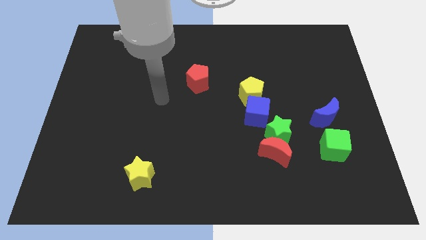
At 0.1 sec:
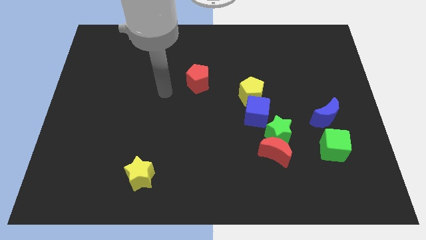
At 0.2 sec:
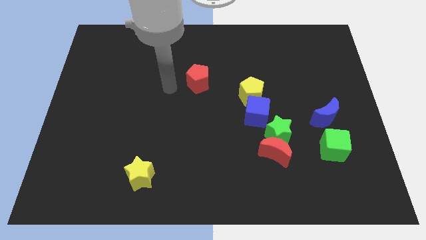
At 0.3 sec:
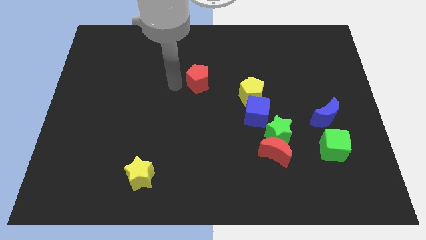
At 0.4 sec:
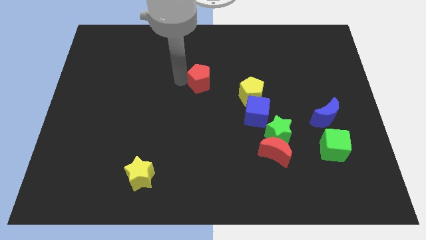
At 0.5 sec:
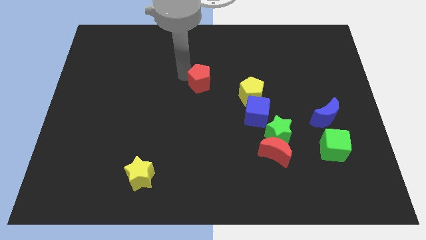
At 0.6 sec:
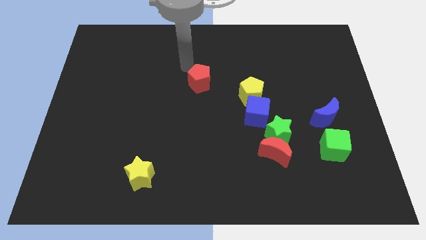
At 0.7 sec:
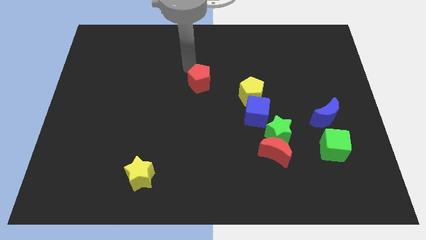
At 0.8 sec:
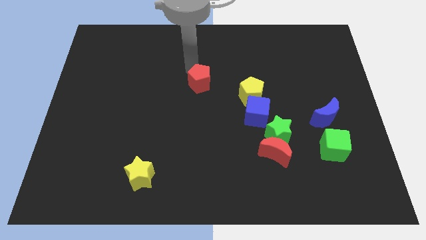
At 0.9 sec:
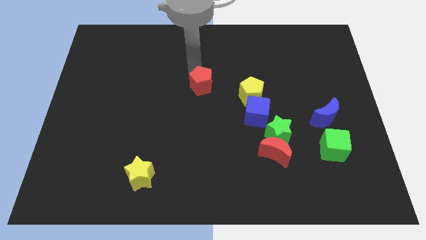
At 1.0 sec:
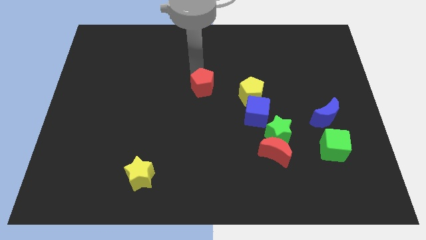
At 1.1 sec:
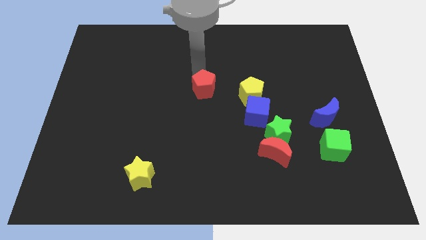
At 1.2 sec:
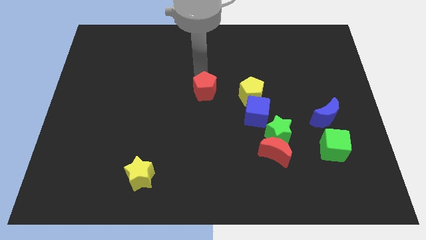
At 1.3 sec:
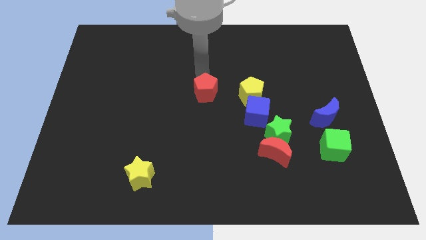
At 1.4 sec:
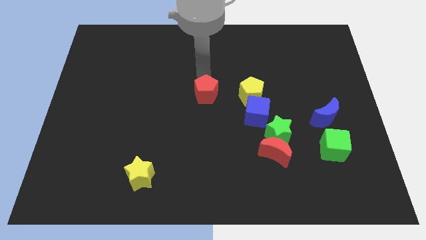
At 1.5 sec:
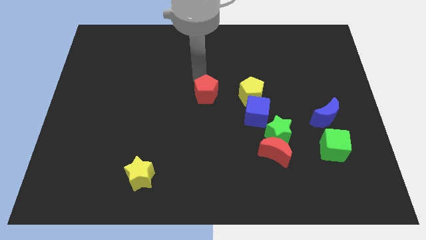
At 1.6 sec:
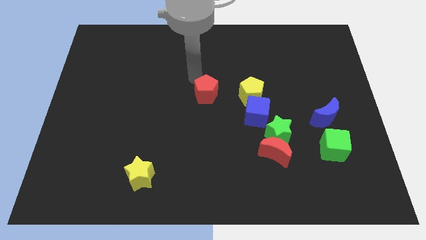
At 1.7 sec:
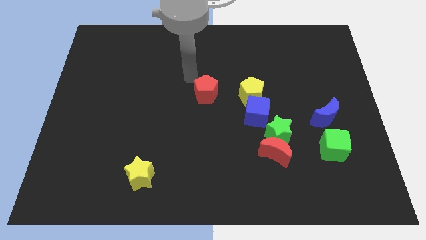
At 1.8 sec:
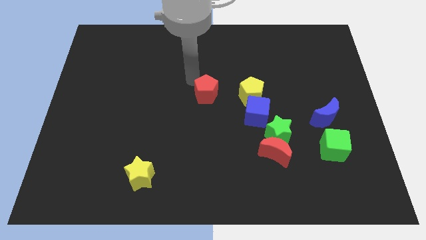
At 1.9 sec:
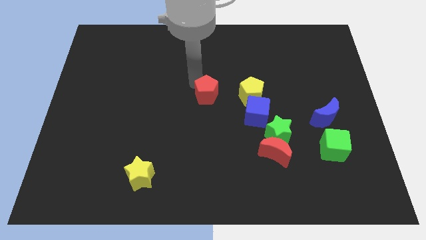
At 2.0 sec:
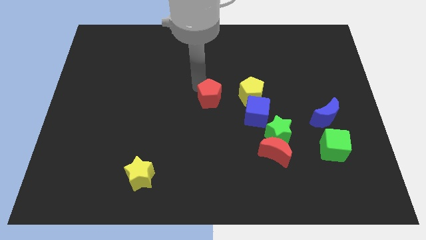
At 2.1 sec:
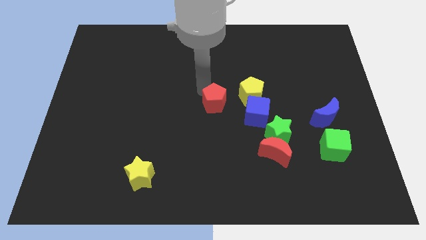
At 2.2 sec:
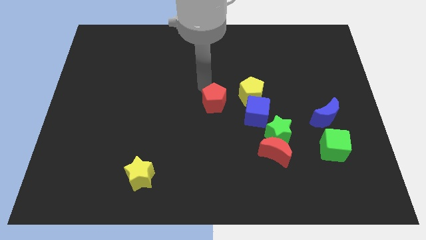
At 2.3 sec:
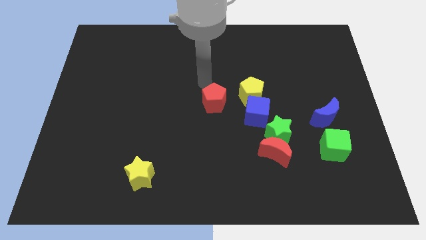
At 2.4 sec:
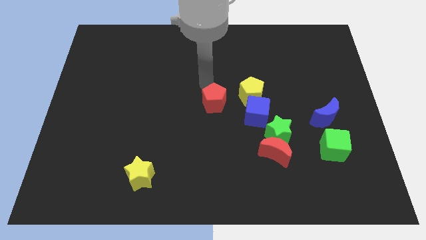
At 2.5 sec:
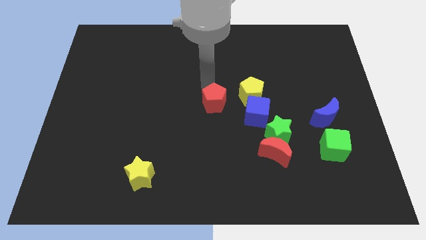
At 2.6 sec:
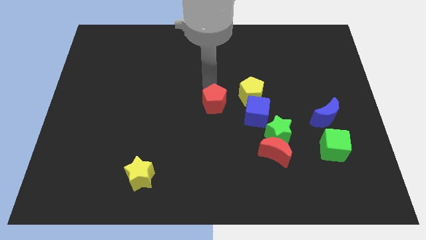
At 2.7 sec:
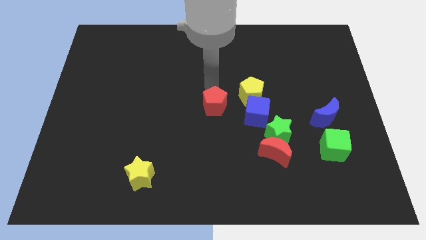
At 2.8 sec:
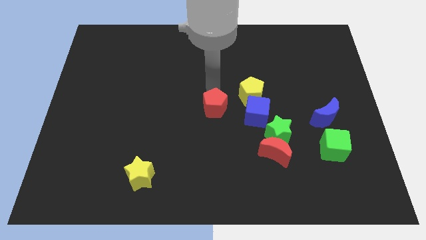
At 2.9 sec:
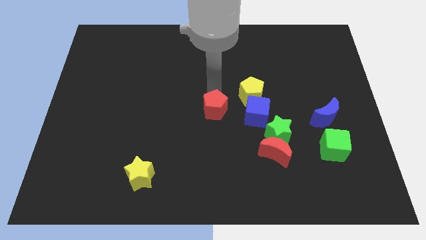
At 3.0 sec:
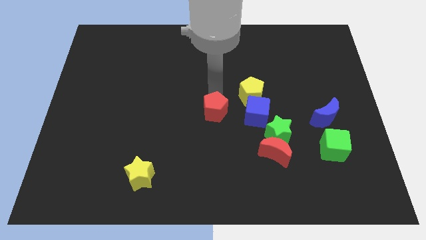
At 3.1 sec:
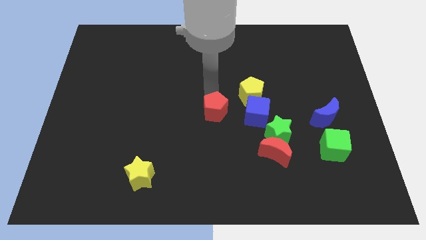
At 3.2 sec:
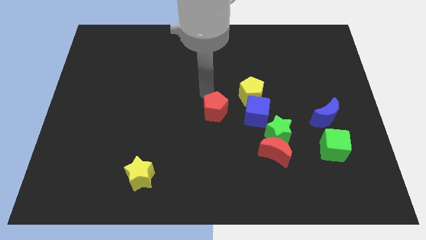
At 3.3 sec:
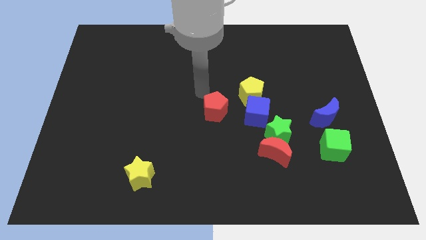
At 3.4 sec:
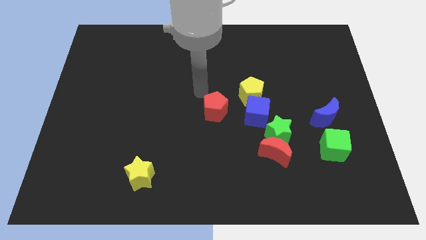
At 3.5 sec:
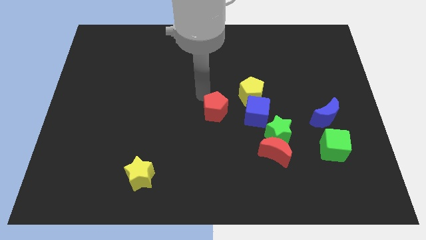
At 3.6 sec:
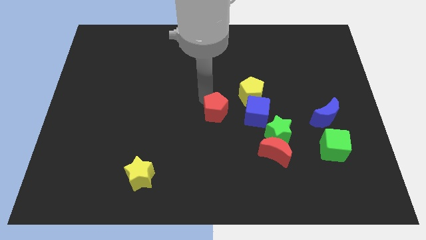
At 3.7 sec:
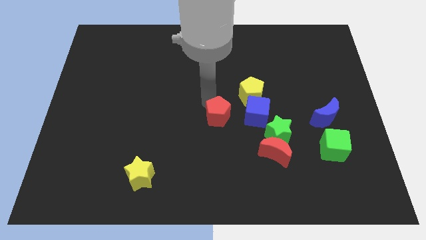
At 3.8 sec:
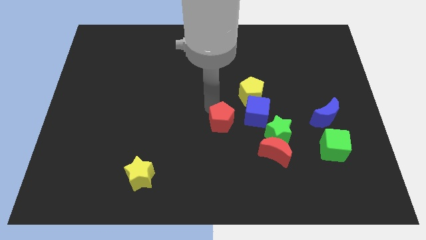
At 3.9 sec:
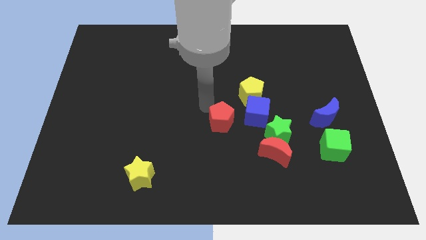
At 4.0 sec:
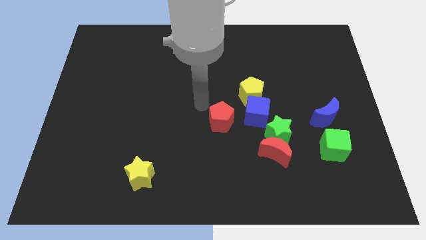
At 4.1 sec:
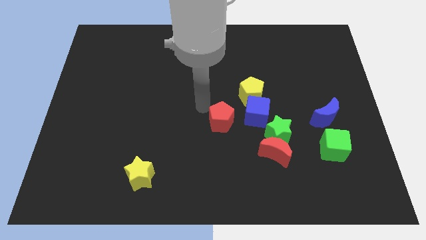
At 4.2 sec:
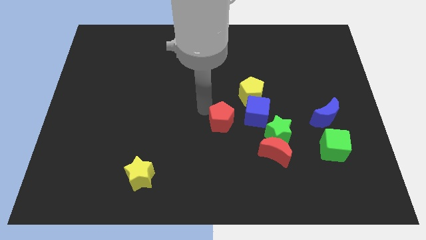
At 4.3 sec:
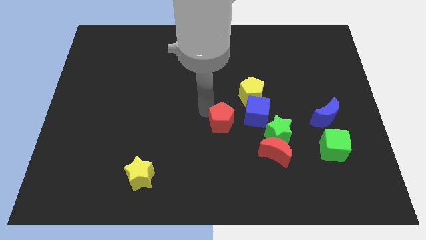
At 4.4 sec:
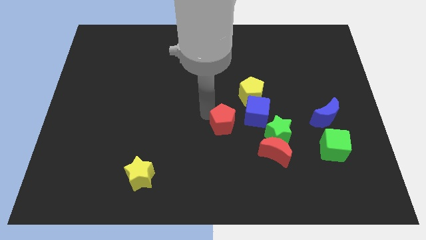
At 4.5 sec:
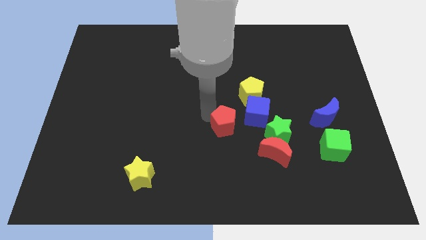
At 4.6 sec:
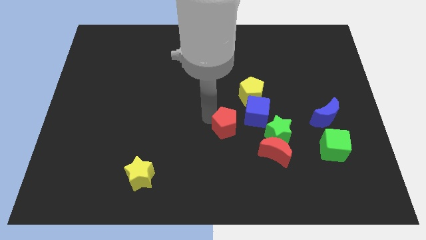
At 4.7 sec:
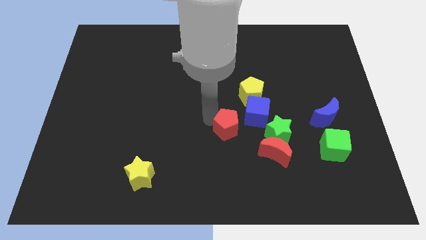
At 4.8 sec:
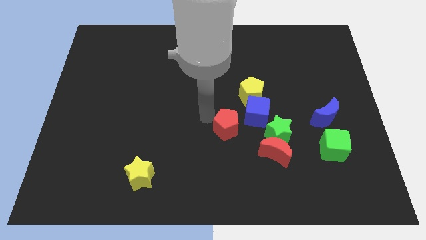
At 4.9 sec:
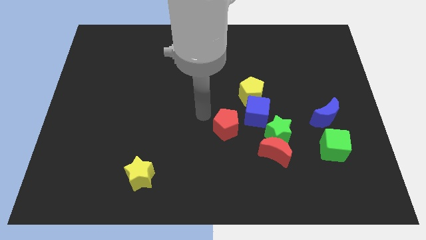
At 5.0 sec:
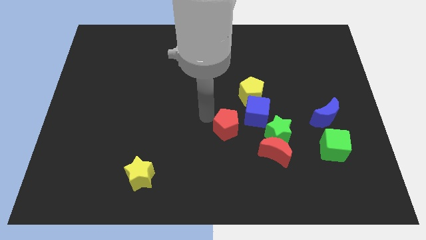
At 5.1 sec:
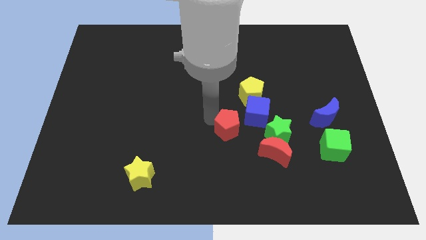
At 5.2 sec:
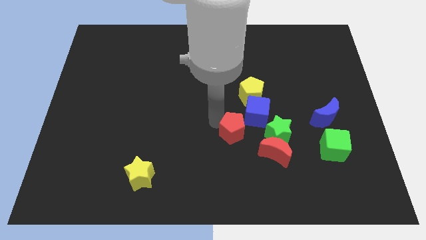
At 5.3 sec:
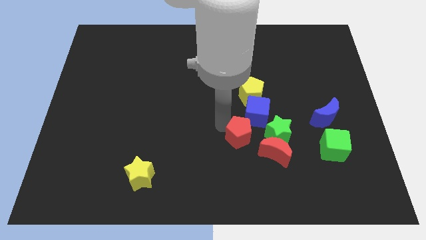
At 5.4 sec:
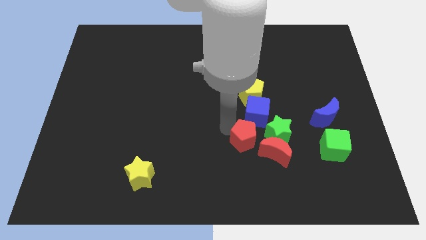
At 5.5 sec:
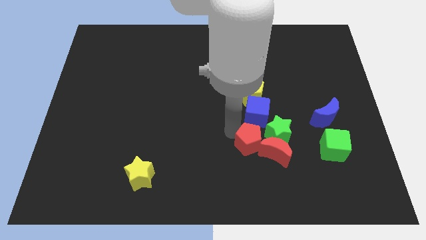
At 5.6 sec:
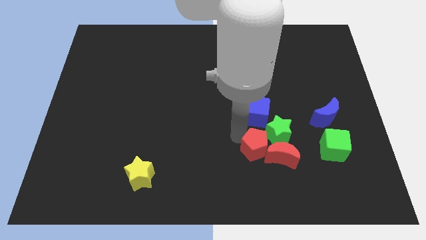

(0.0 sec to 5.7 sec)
put the red pentagon to the red moon

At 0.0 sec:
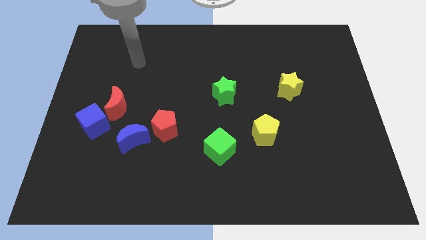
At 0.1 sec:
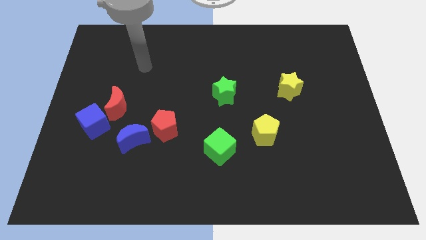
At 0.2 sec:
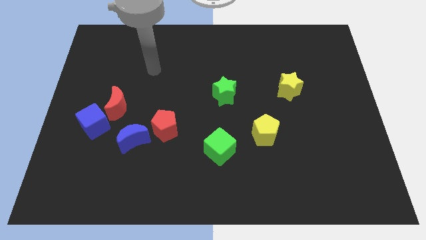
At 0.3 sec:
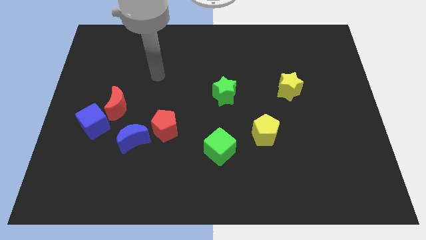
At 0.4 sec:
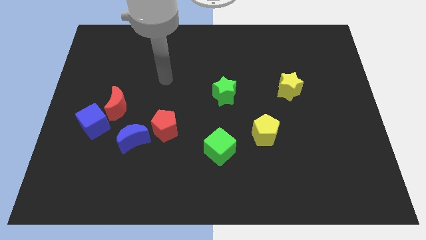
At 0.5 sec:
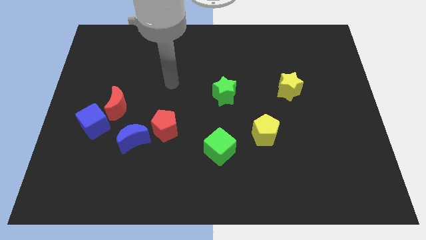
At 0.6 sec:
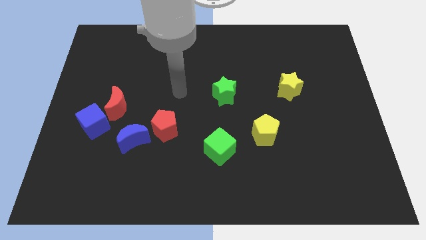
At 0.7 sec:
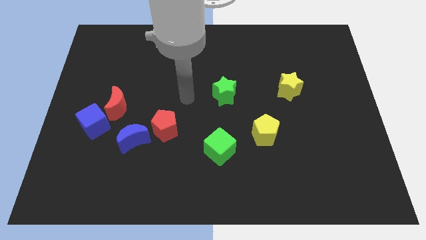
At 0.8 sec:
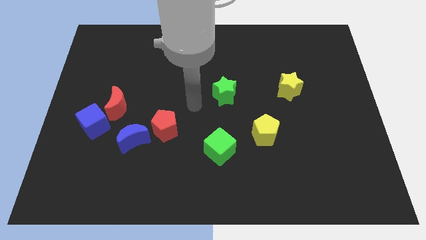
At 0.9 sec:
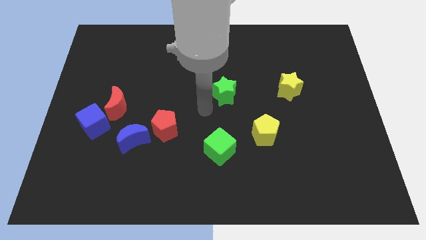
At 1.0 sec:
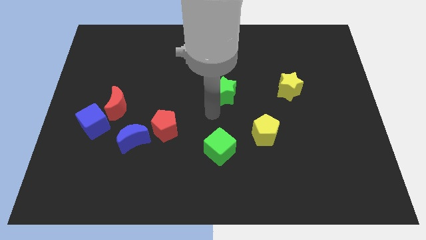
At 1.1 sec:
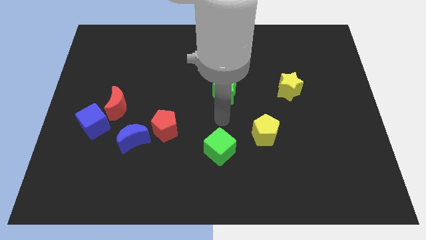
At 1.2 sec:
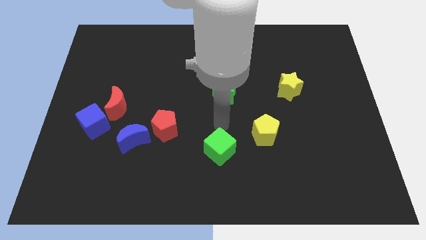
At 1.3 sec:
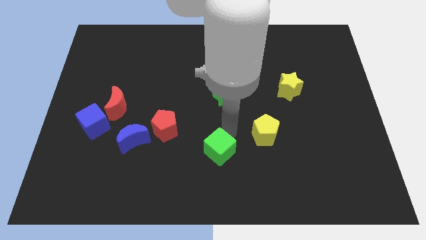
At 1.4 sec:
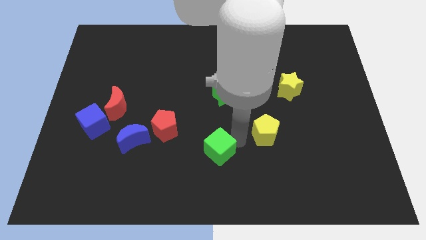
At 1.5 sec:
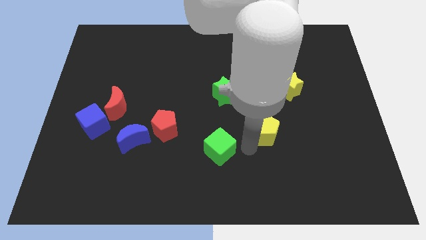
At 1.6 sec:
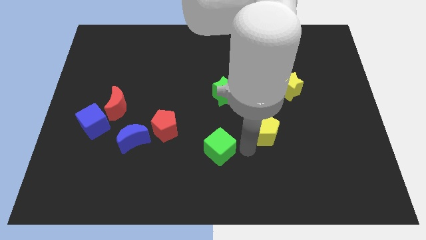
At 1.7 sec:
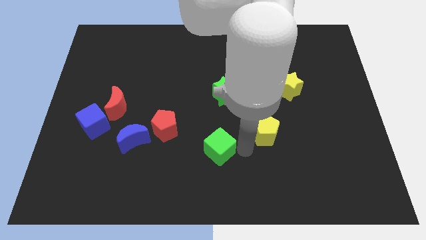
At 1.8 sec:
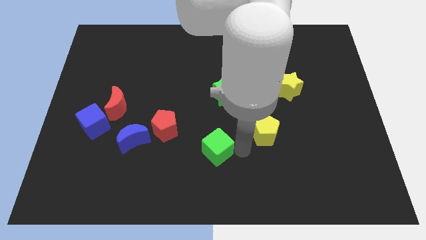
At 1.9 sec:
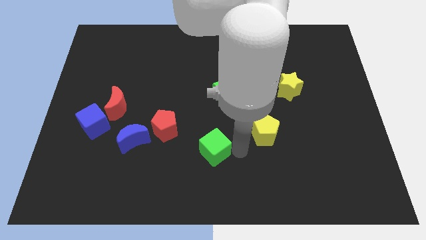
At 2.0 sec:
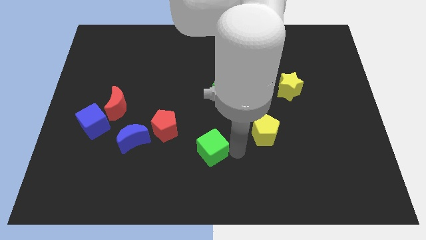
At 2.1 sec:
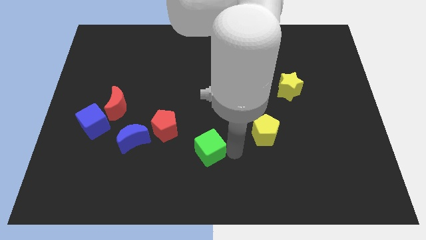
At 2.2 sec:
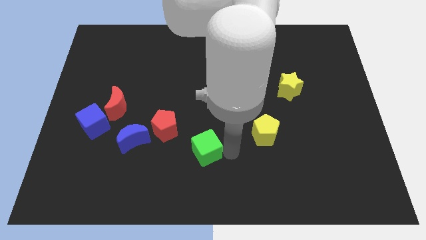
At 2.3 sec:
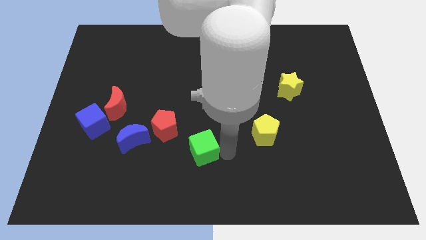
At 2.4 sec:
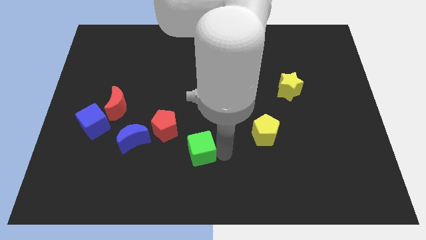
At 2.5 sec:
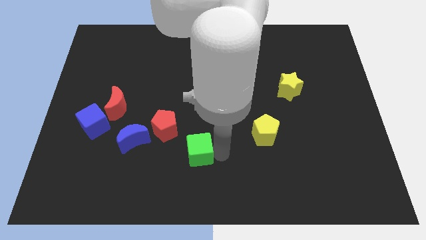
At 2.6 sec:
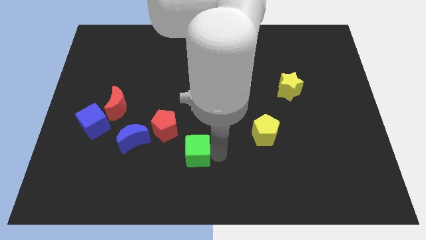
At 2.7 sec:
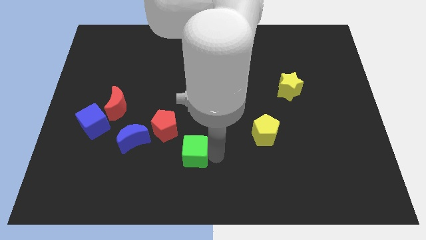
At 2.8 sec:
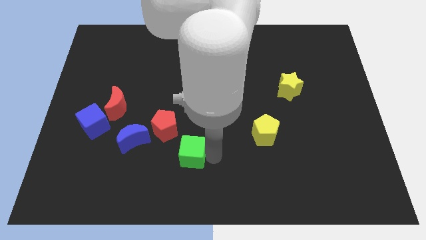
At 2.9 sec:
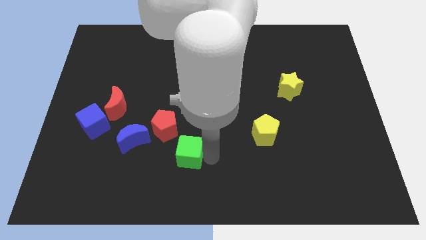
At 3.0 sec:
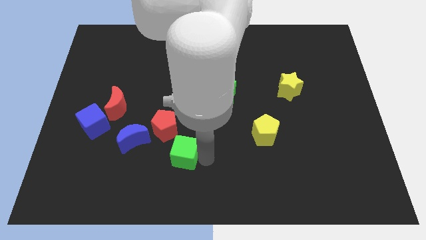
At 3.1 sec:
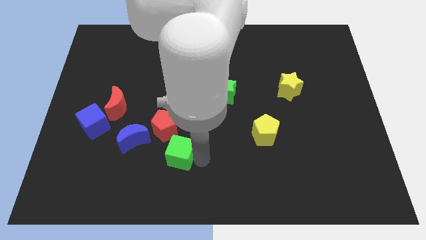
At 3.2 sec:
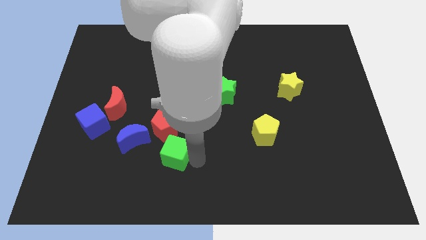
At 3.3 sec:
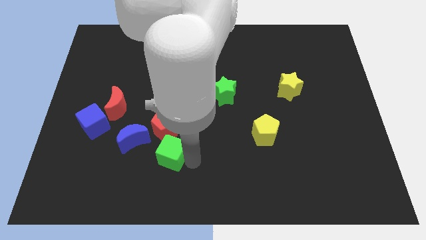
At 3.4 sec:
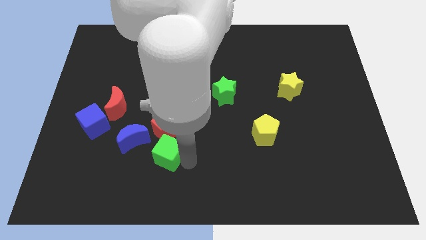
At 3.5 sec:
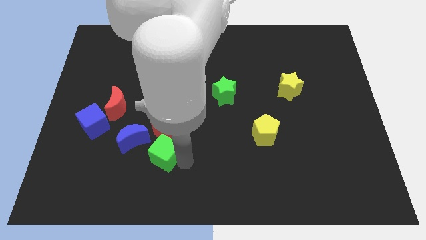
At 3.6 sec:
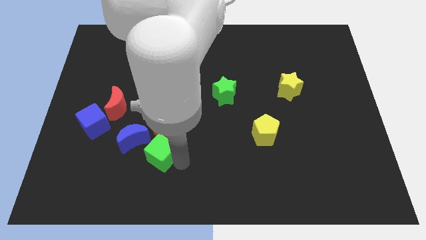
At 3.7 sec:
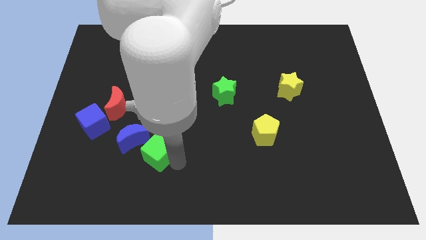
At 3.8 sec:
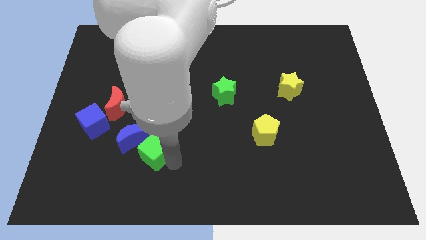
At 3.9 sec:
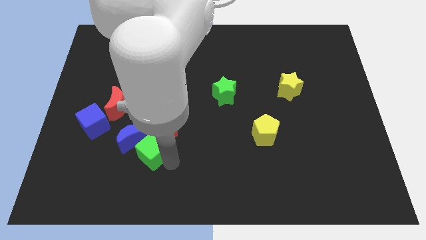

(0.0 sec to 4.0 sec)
move the green cube towards the blue moon
